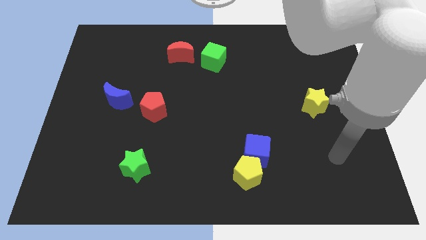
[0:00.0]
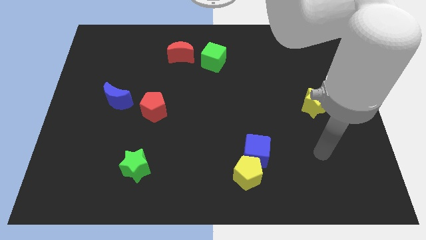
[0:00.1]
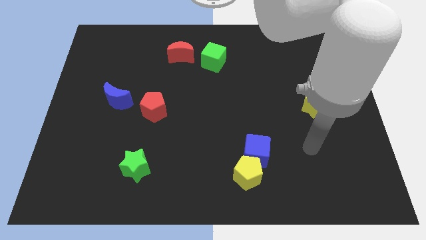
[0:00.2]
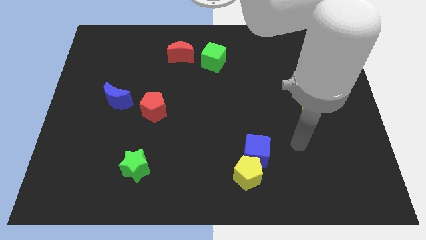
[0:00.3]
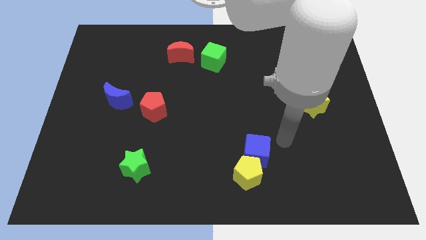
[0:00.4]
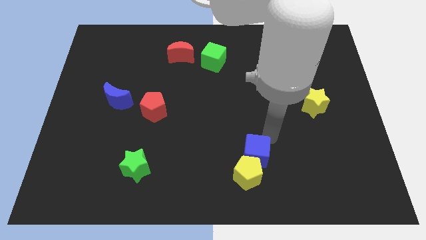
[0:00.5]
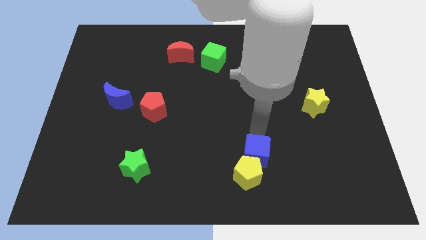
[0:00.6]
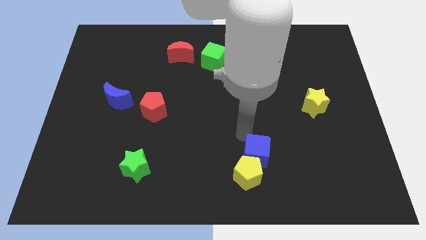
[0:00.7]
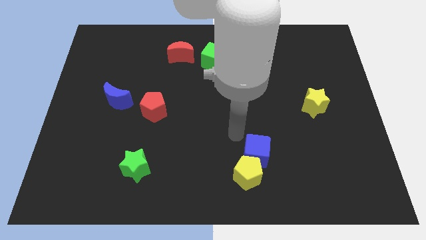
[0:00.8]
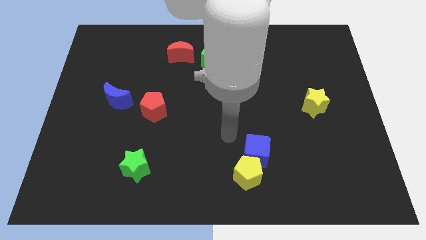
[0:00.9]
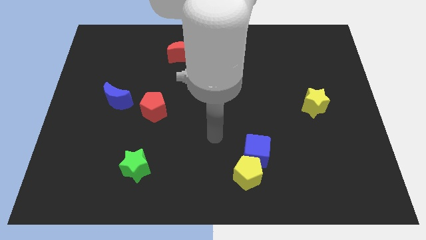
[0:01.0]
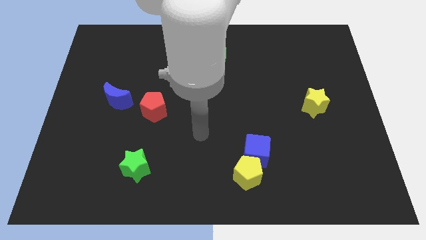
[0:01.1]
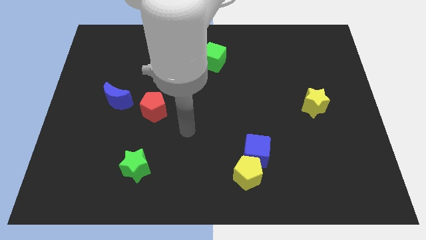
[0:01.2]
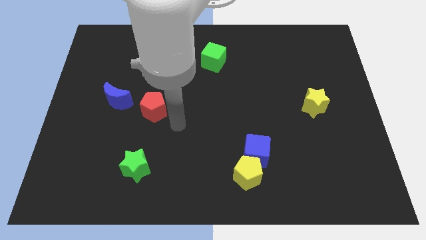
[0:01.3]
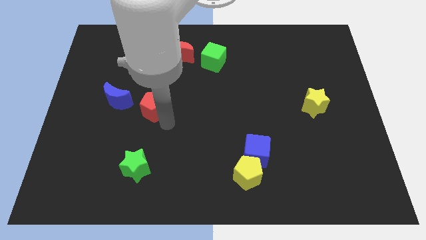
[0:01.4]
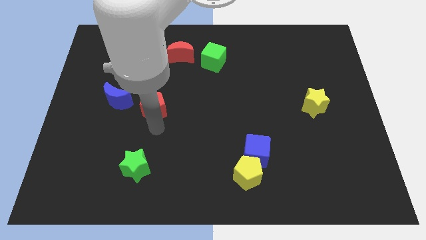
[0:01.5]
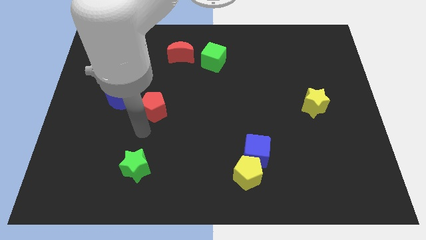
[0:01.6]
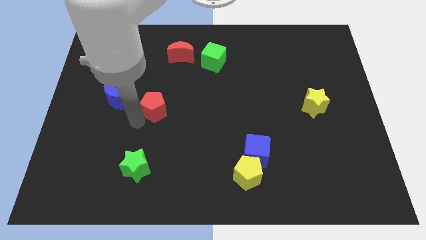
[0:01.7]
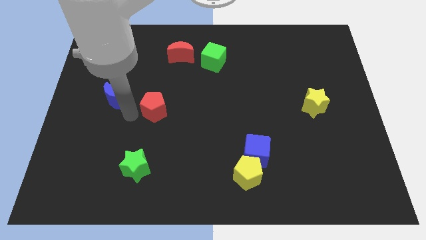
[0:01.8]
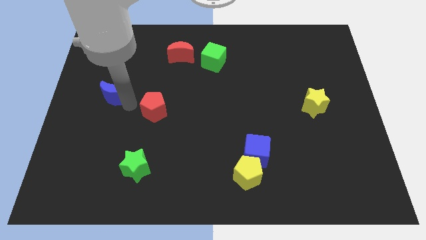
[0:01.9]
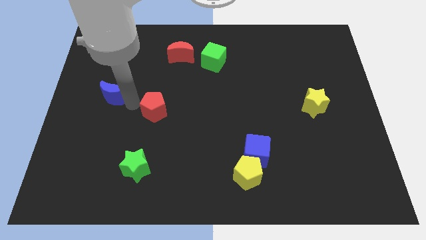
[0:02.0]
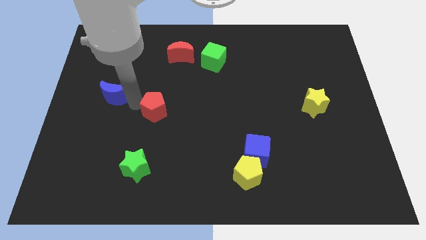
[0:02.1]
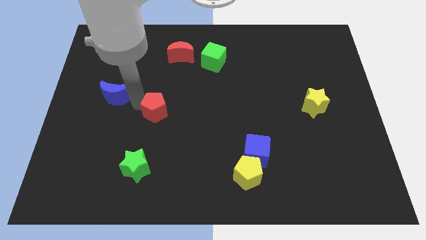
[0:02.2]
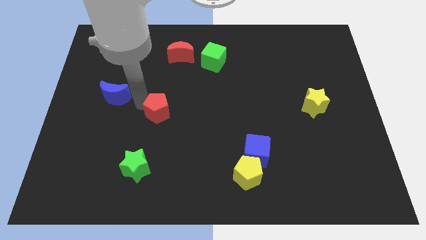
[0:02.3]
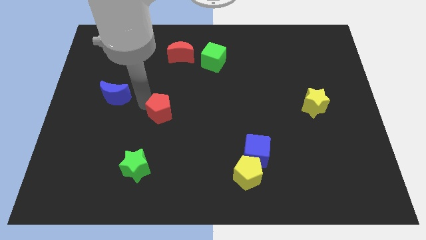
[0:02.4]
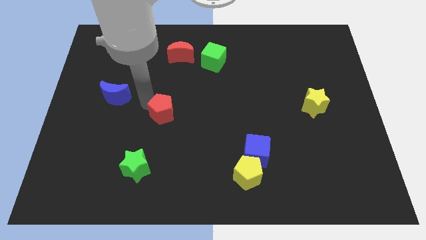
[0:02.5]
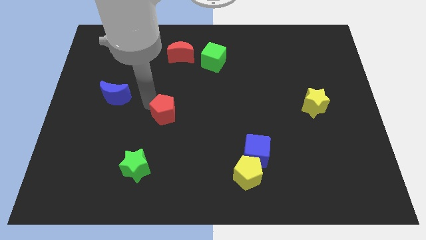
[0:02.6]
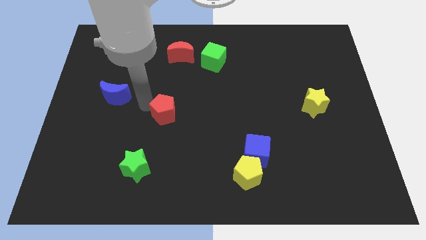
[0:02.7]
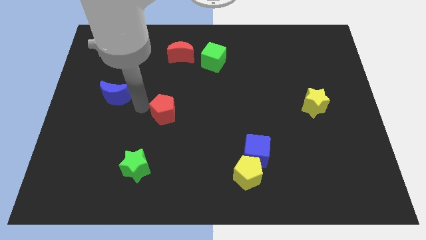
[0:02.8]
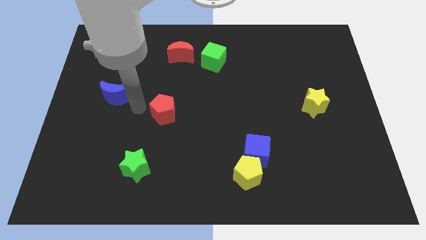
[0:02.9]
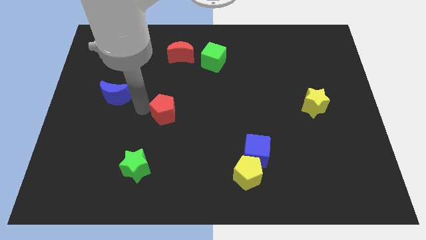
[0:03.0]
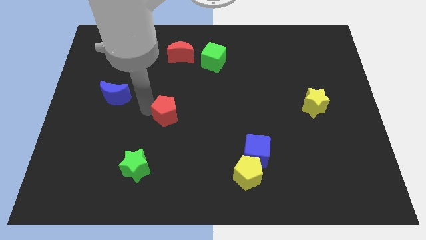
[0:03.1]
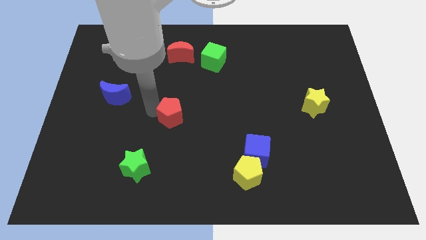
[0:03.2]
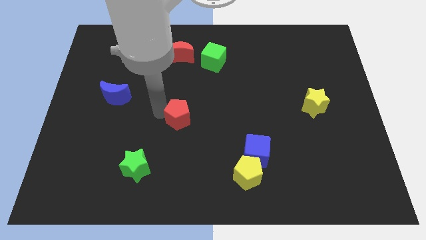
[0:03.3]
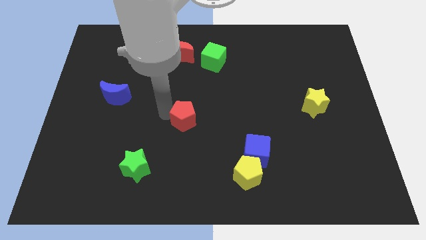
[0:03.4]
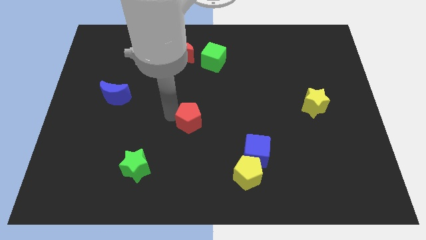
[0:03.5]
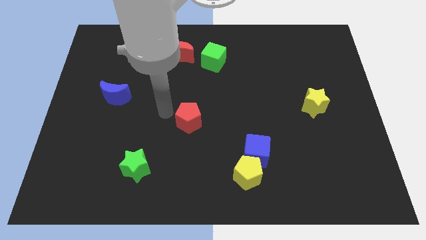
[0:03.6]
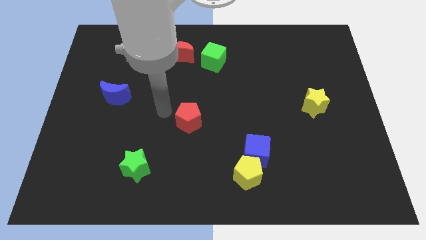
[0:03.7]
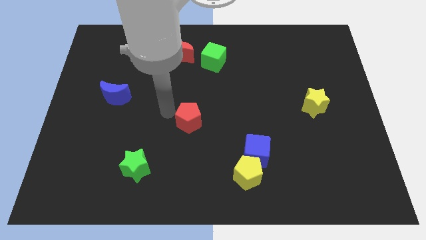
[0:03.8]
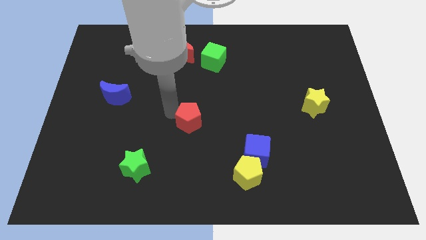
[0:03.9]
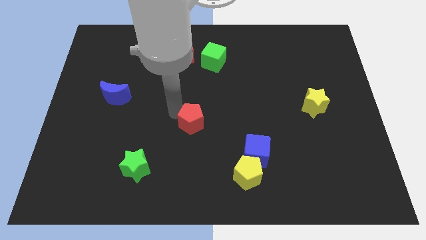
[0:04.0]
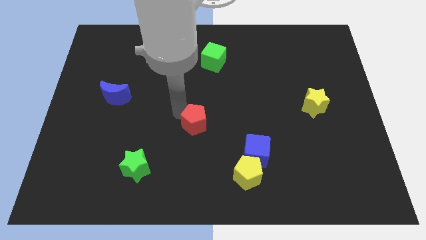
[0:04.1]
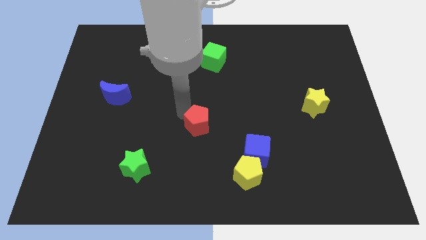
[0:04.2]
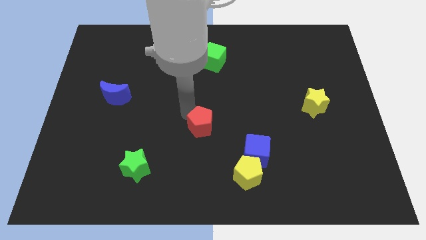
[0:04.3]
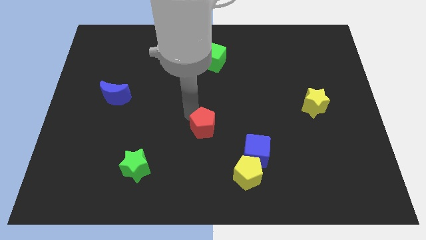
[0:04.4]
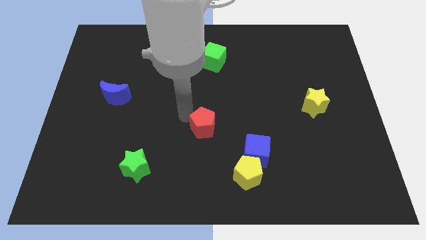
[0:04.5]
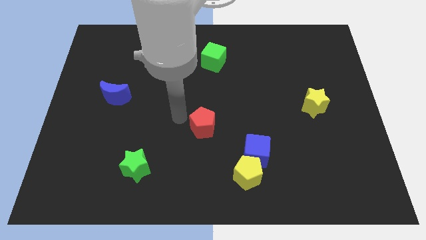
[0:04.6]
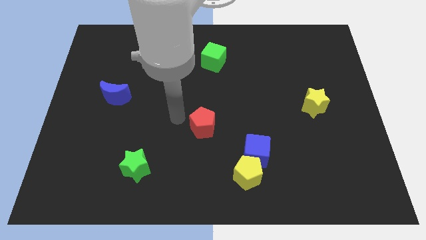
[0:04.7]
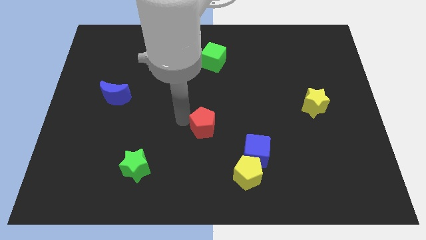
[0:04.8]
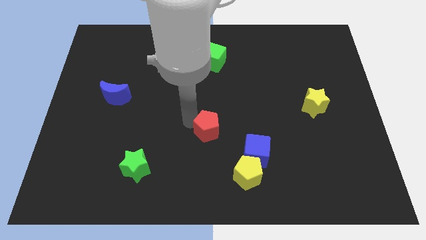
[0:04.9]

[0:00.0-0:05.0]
slide the red pentagon to the top left side of the blue cube

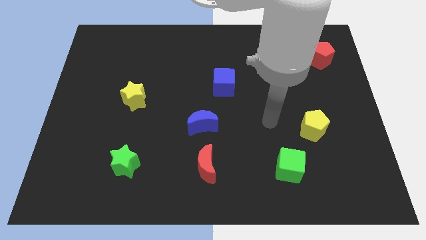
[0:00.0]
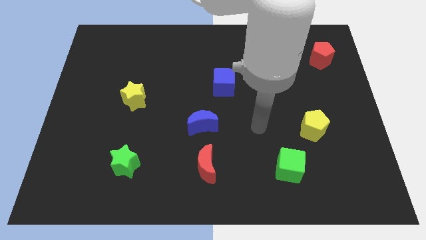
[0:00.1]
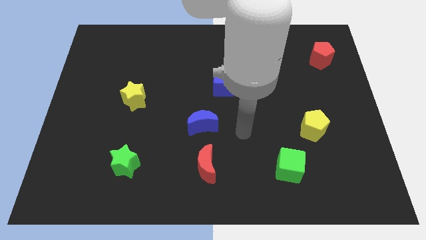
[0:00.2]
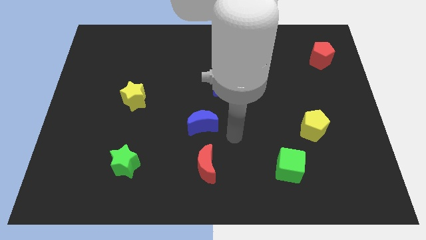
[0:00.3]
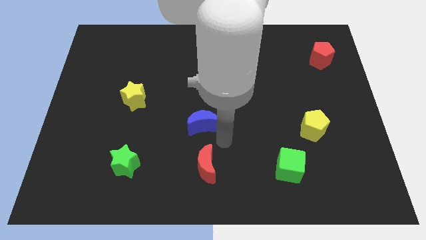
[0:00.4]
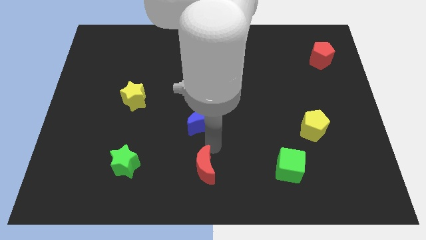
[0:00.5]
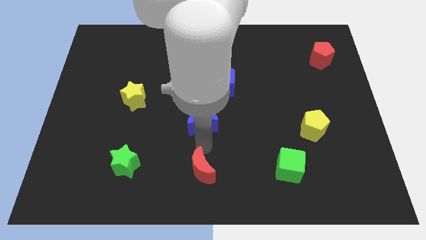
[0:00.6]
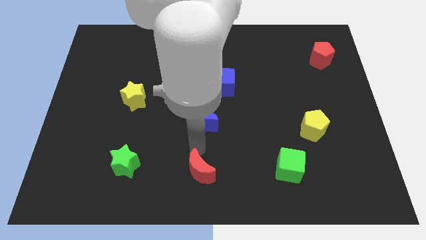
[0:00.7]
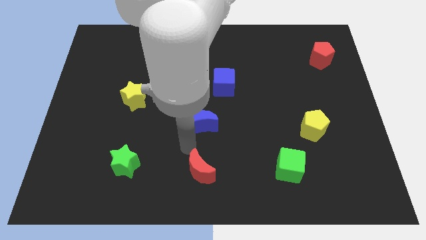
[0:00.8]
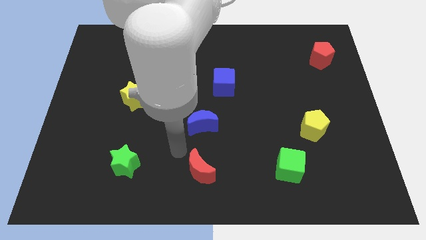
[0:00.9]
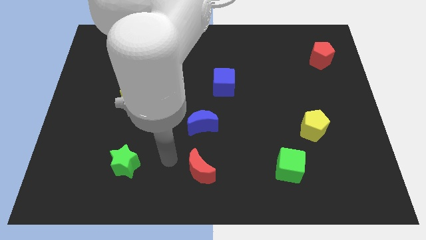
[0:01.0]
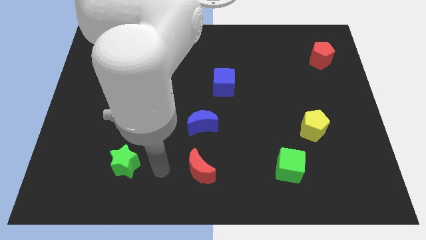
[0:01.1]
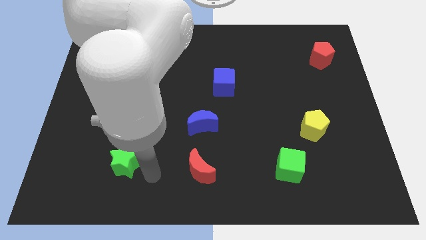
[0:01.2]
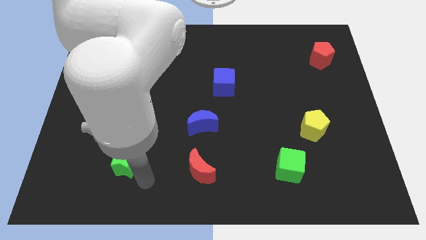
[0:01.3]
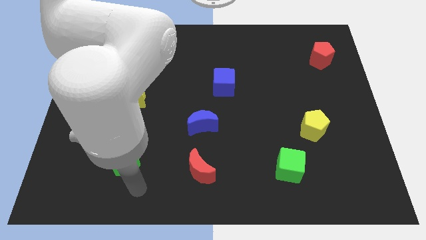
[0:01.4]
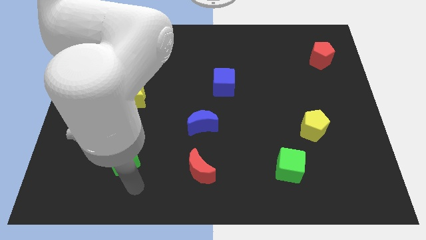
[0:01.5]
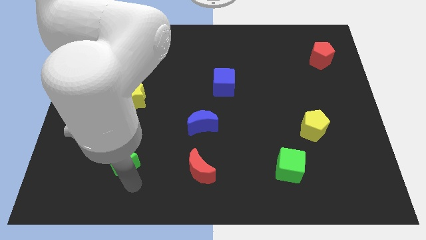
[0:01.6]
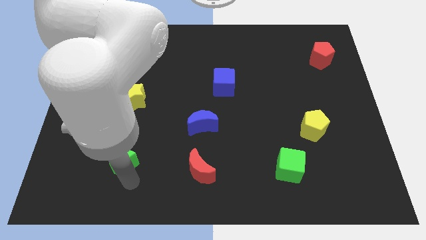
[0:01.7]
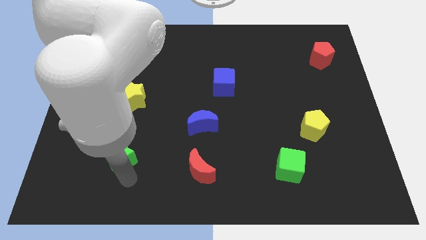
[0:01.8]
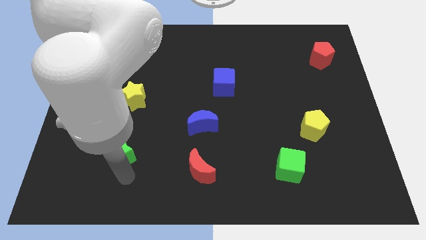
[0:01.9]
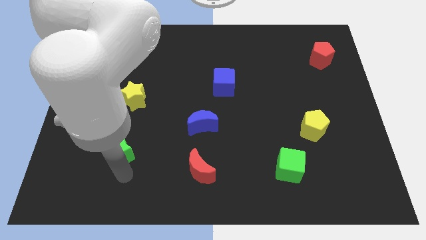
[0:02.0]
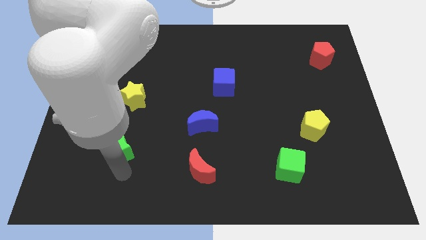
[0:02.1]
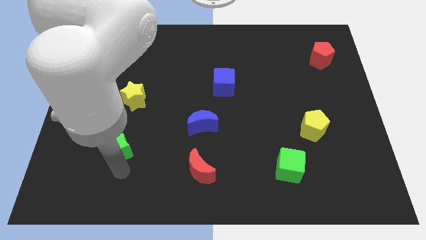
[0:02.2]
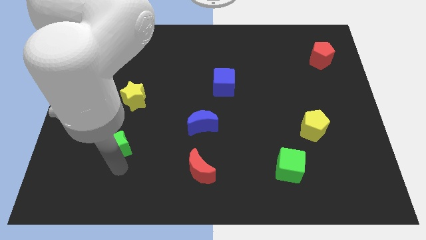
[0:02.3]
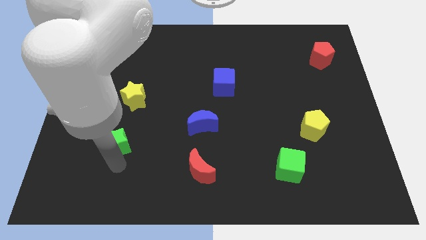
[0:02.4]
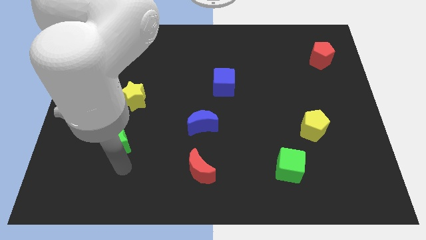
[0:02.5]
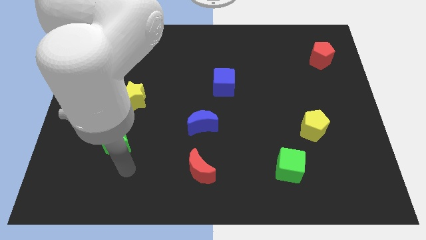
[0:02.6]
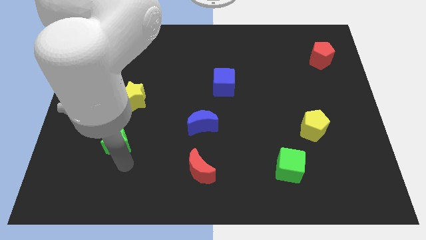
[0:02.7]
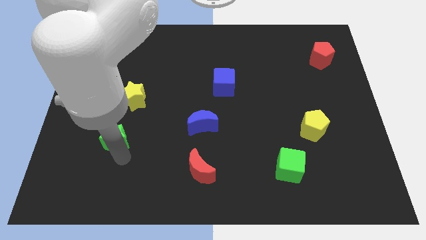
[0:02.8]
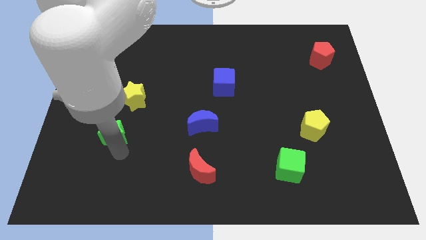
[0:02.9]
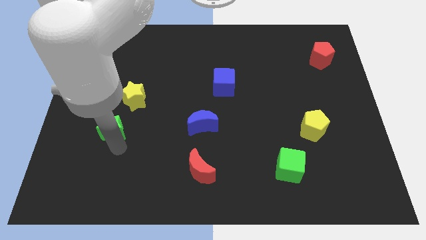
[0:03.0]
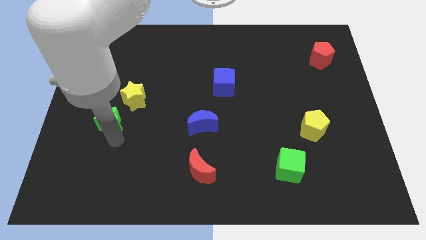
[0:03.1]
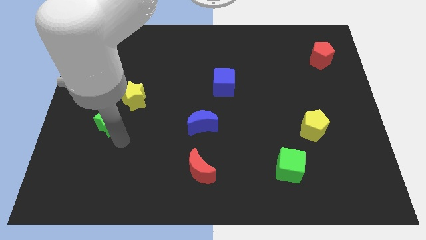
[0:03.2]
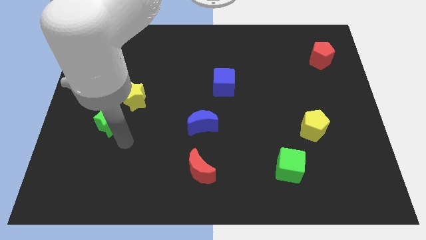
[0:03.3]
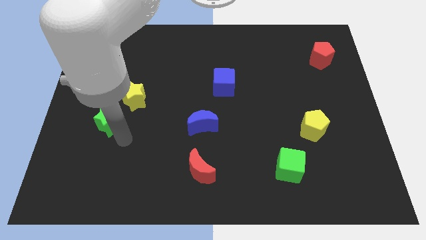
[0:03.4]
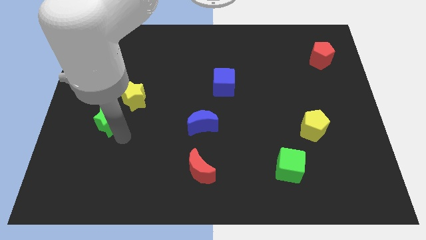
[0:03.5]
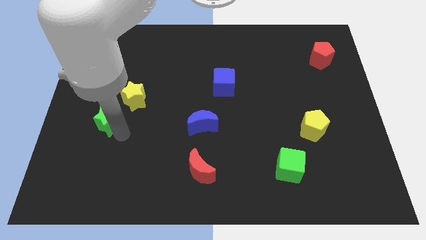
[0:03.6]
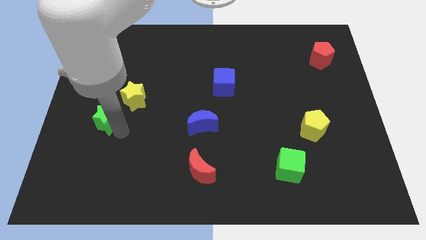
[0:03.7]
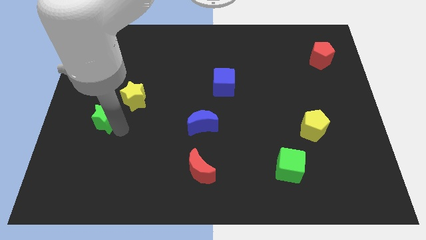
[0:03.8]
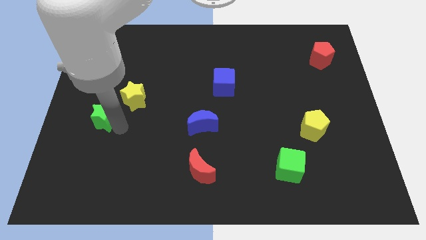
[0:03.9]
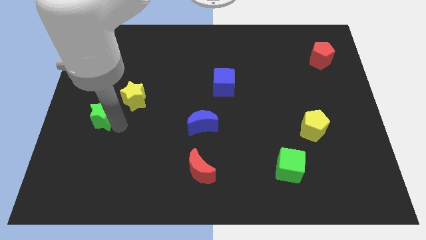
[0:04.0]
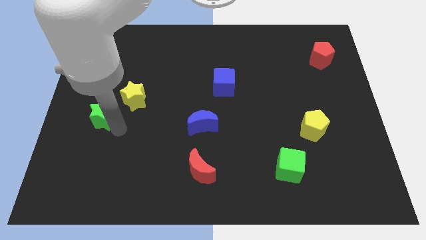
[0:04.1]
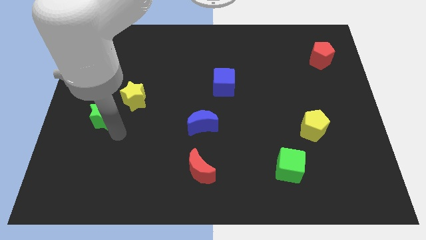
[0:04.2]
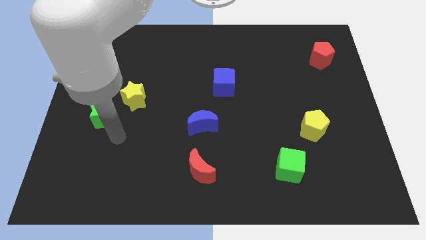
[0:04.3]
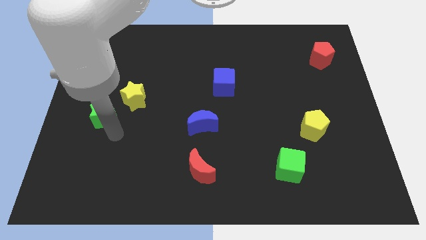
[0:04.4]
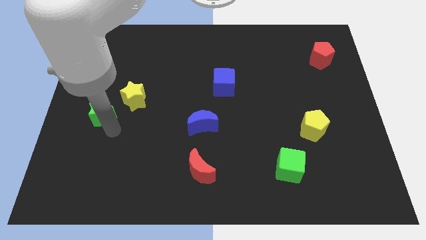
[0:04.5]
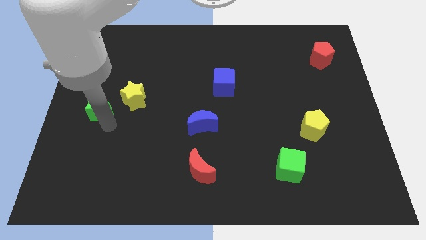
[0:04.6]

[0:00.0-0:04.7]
move the green star just left of the yellow star
